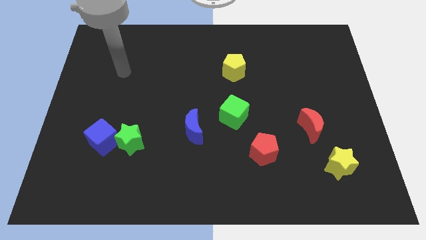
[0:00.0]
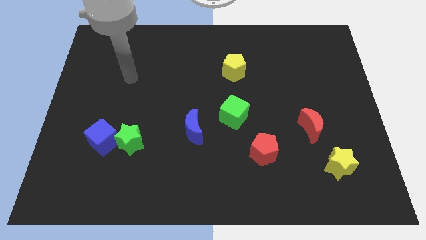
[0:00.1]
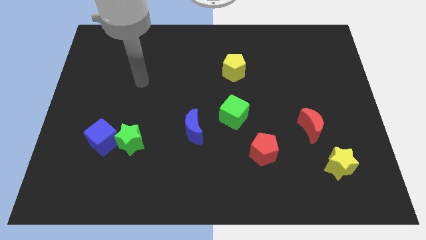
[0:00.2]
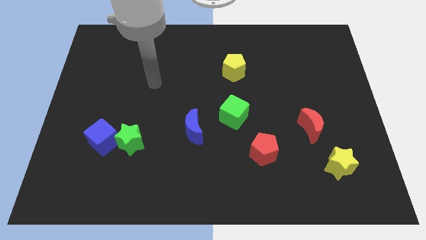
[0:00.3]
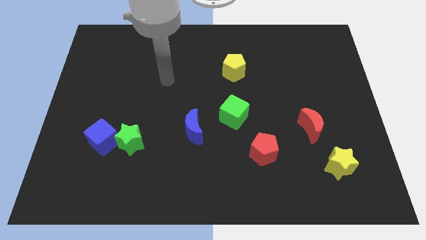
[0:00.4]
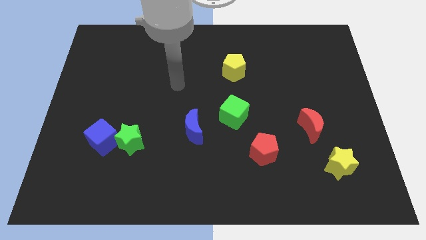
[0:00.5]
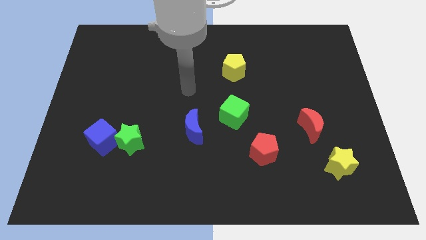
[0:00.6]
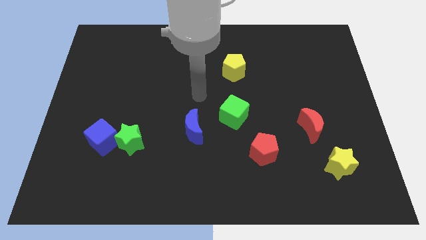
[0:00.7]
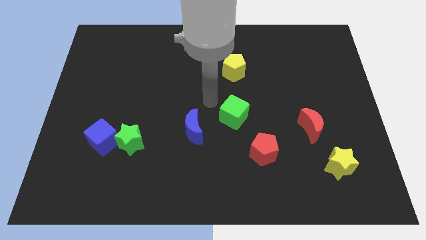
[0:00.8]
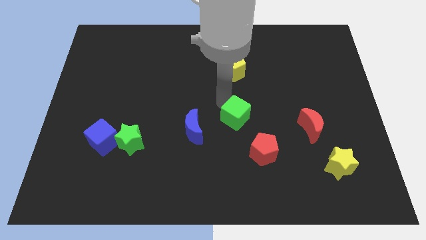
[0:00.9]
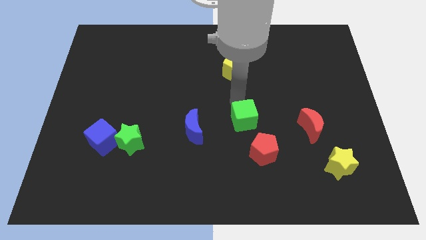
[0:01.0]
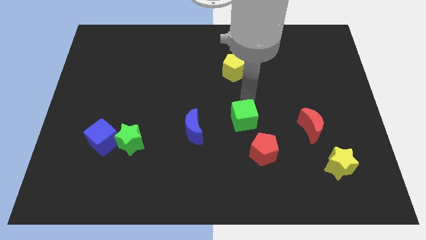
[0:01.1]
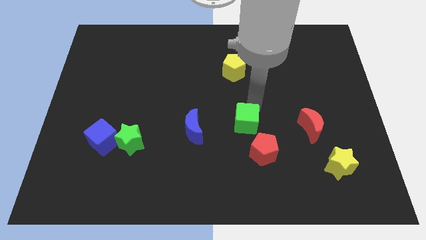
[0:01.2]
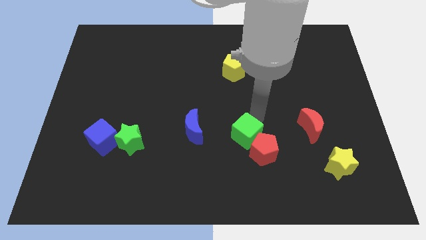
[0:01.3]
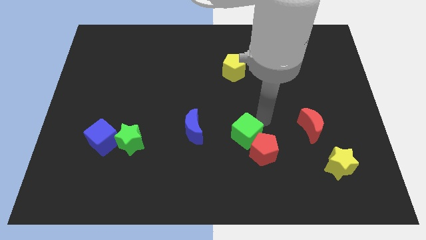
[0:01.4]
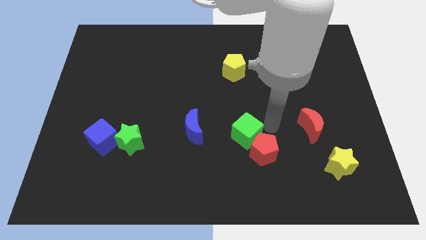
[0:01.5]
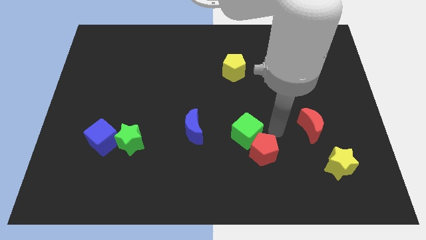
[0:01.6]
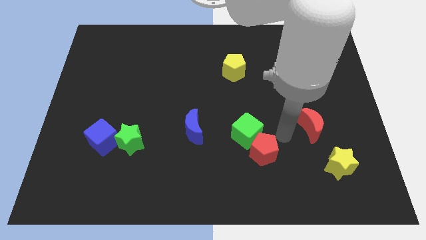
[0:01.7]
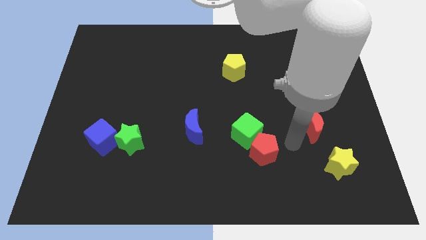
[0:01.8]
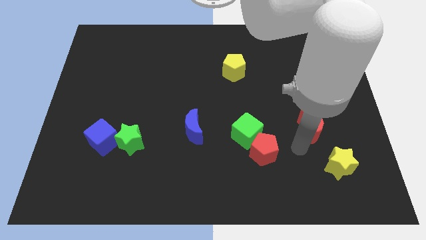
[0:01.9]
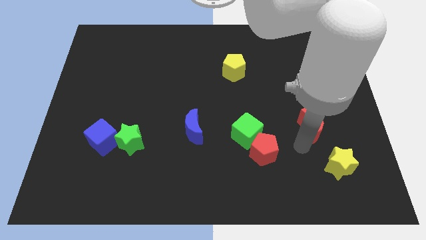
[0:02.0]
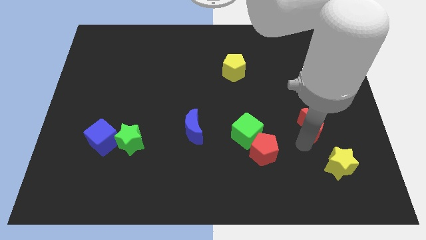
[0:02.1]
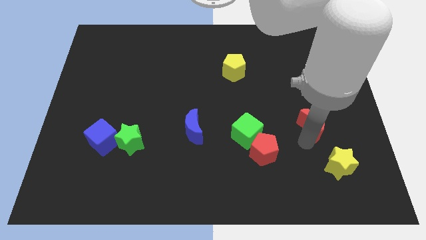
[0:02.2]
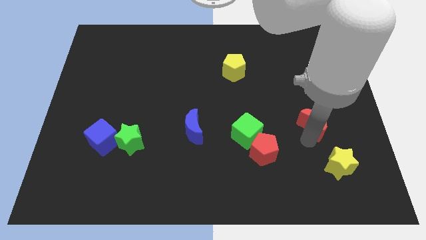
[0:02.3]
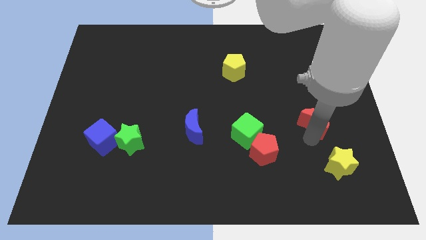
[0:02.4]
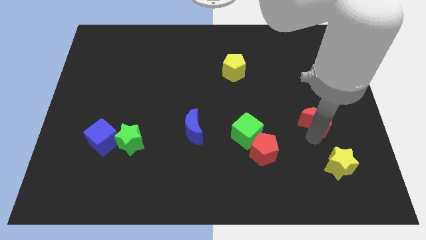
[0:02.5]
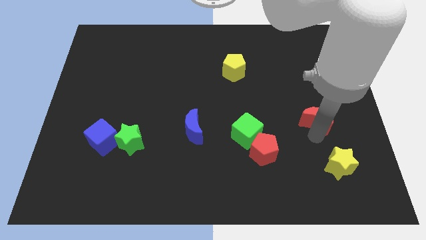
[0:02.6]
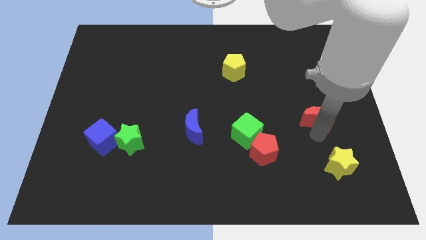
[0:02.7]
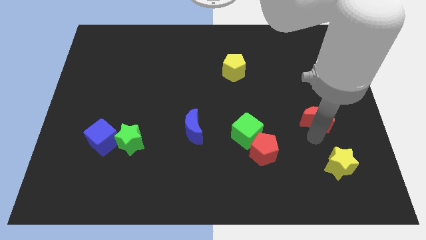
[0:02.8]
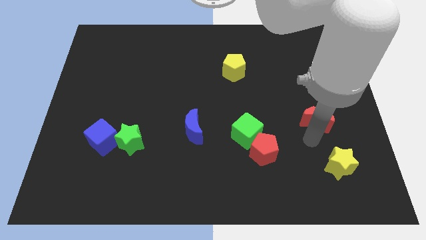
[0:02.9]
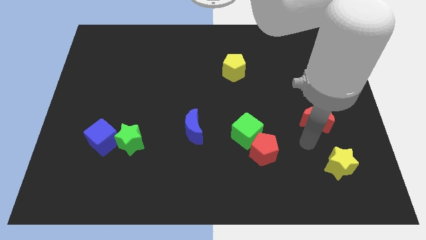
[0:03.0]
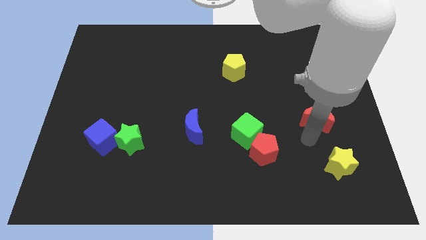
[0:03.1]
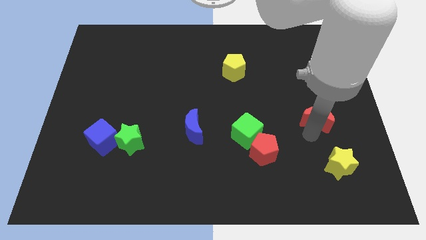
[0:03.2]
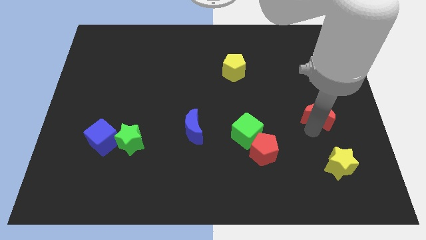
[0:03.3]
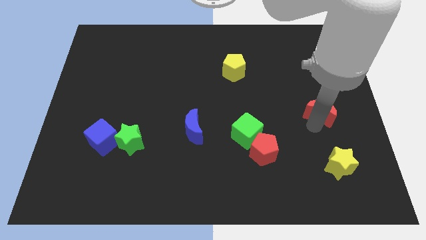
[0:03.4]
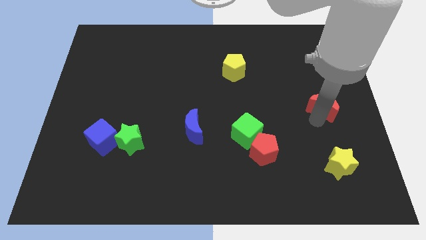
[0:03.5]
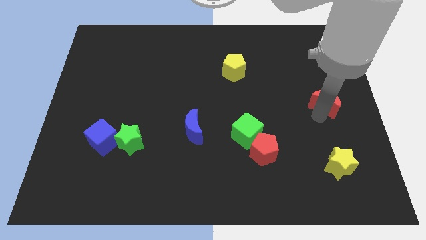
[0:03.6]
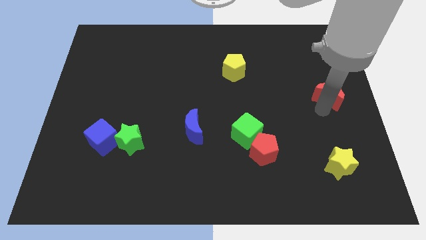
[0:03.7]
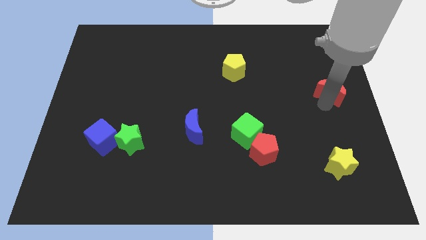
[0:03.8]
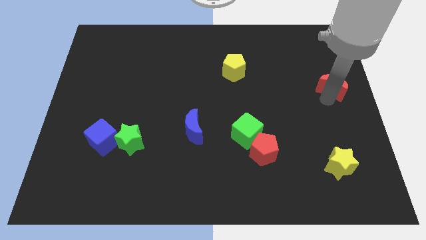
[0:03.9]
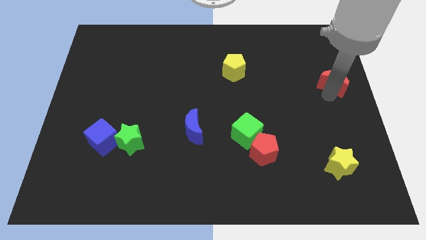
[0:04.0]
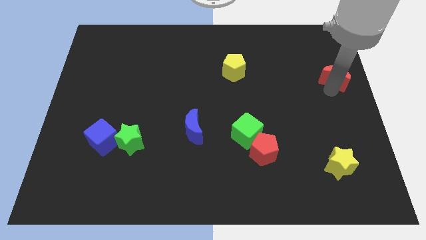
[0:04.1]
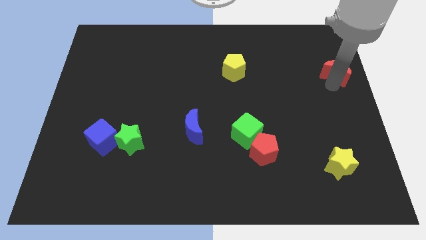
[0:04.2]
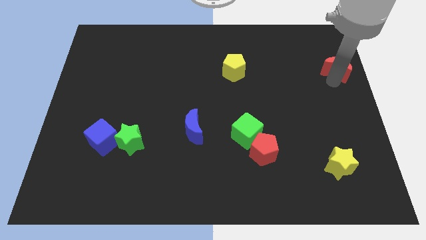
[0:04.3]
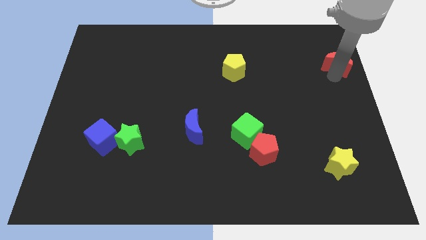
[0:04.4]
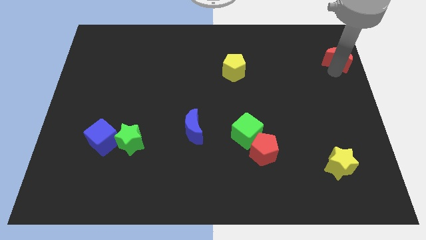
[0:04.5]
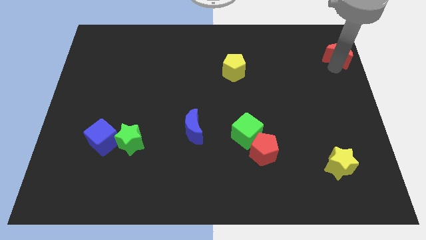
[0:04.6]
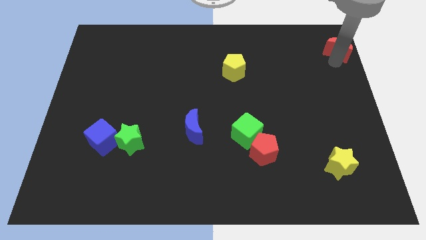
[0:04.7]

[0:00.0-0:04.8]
push the red moon to the upper right corner

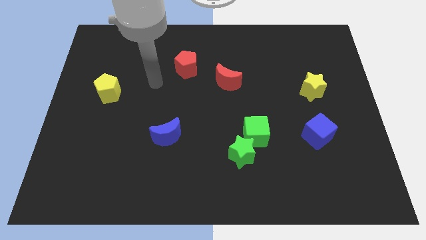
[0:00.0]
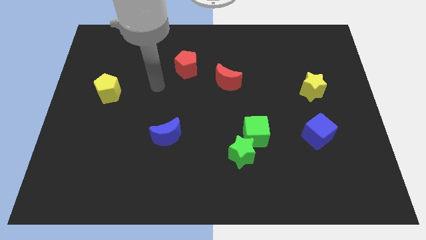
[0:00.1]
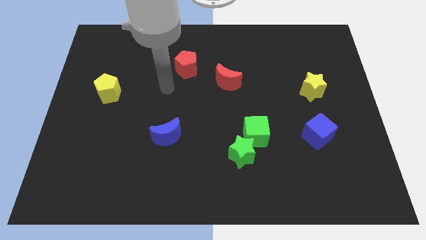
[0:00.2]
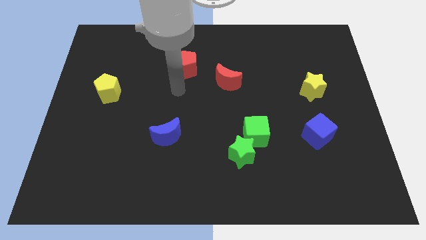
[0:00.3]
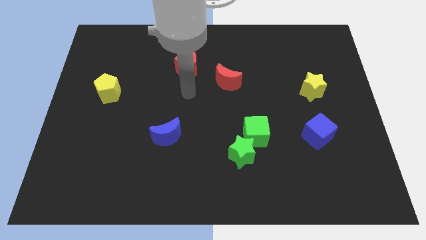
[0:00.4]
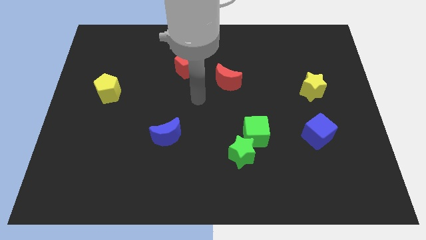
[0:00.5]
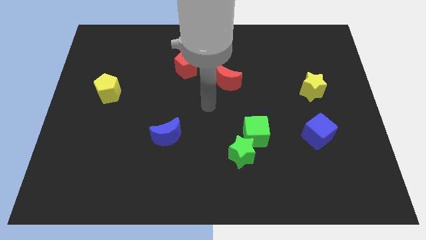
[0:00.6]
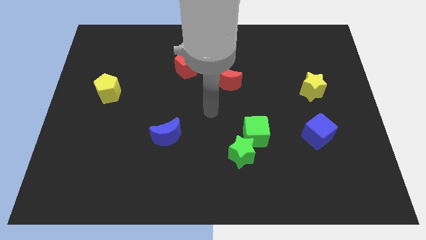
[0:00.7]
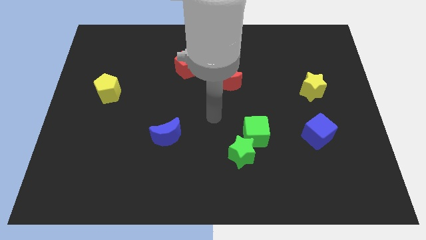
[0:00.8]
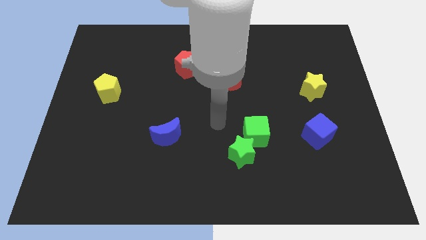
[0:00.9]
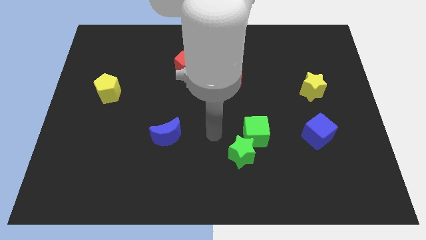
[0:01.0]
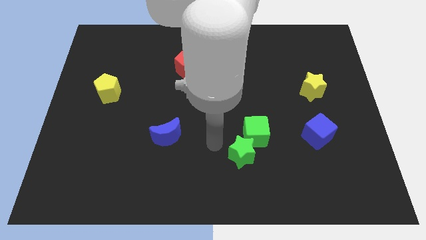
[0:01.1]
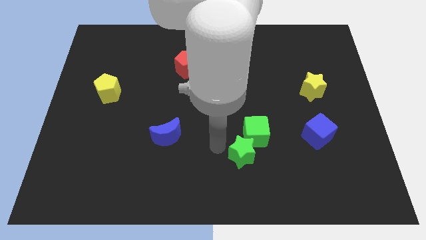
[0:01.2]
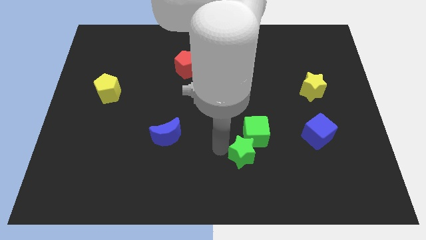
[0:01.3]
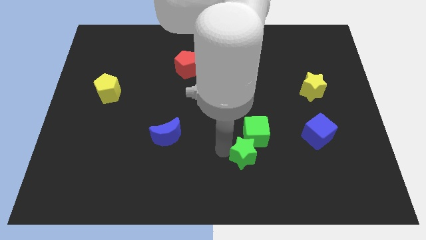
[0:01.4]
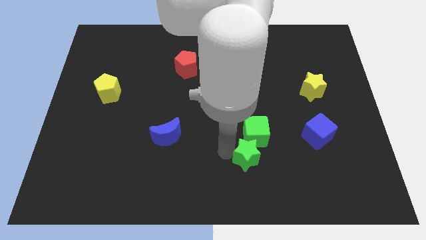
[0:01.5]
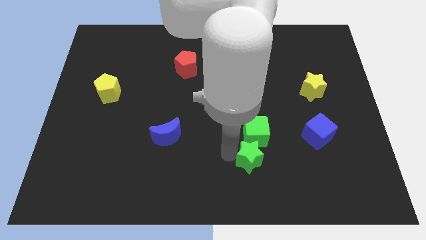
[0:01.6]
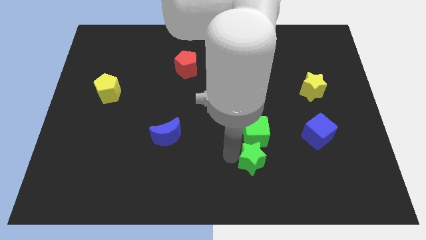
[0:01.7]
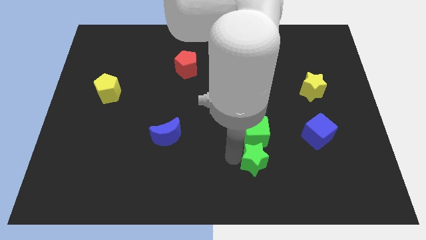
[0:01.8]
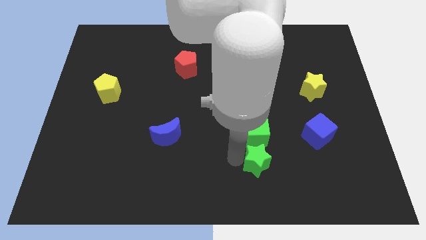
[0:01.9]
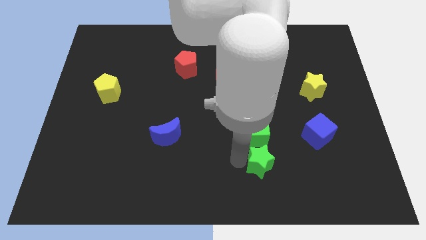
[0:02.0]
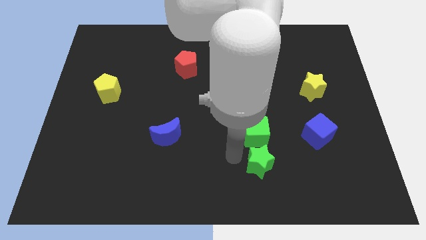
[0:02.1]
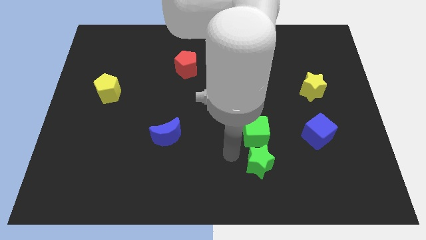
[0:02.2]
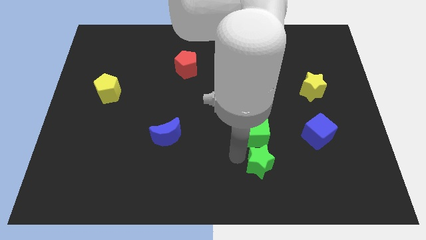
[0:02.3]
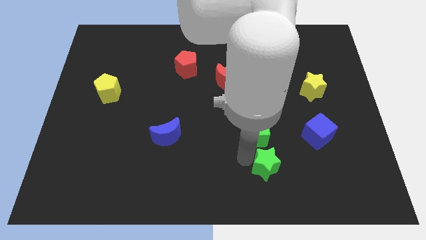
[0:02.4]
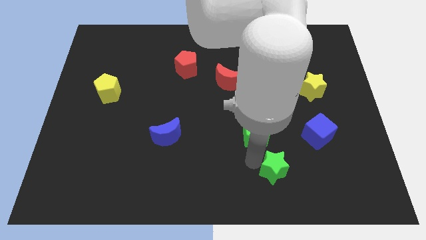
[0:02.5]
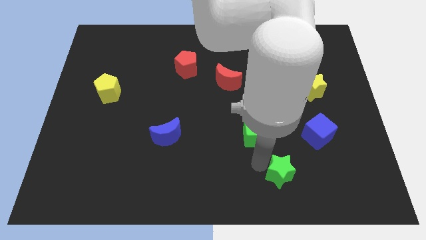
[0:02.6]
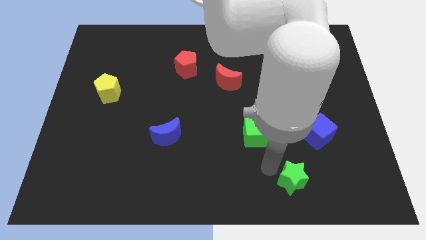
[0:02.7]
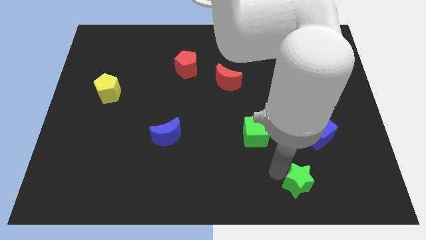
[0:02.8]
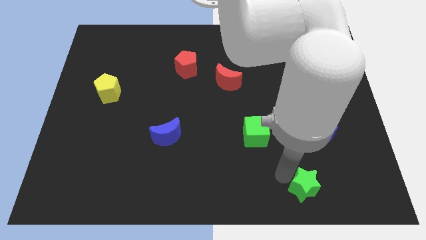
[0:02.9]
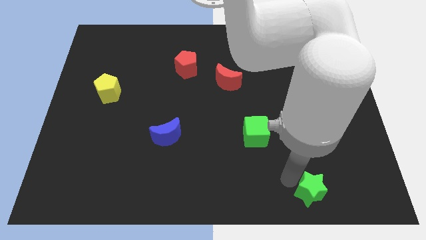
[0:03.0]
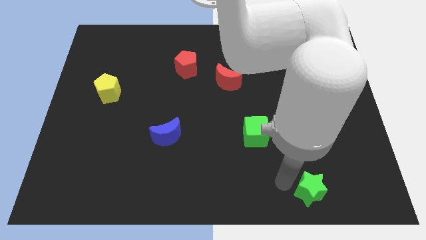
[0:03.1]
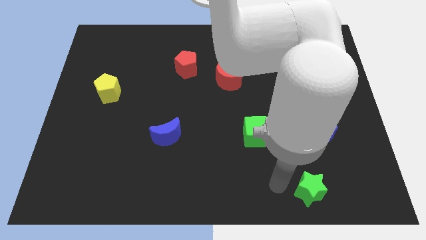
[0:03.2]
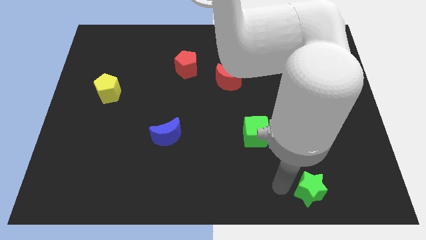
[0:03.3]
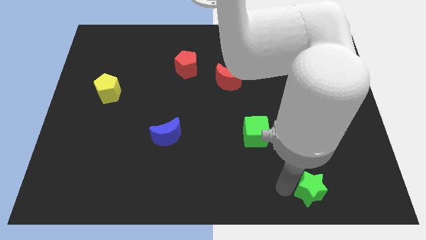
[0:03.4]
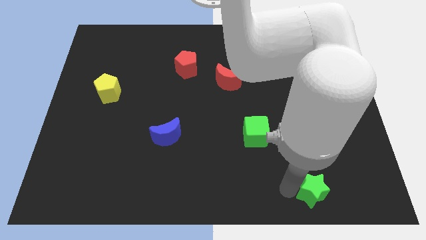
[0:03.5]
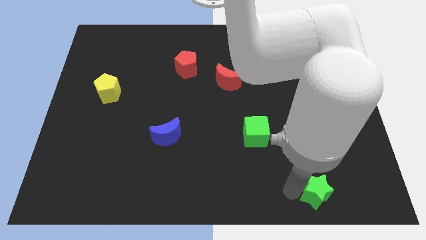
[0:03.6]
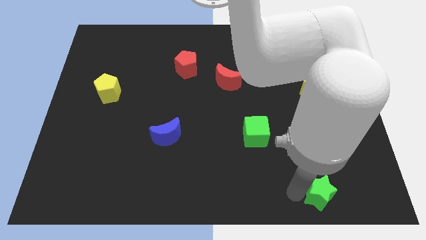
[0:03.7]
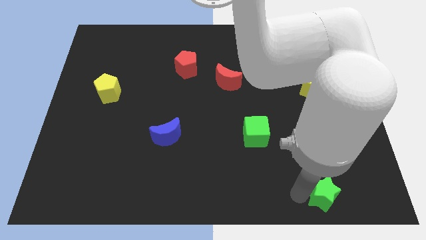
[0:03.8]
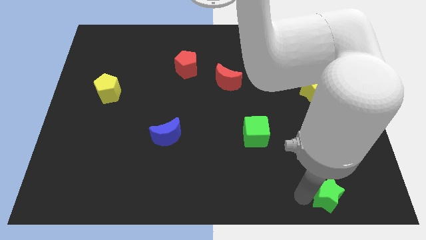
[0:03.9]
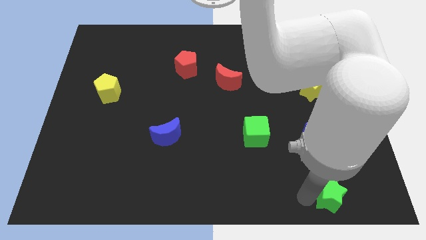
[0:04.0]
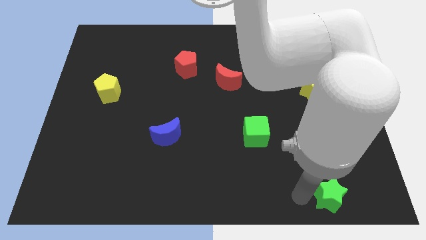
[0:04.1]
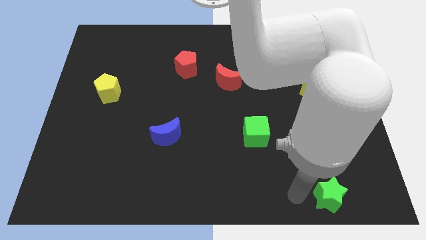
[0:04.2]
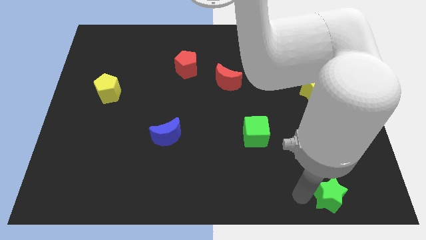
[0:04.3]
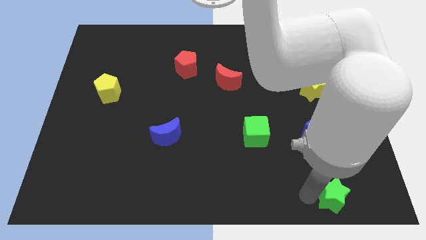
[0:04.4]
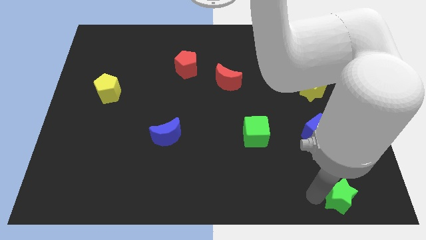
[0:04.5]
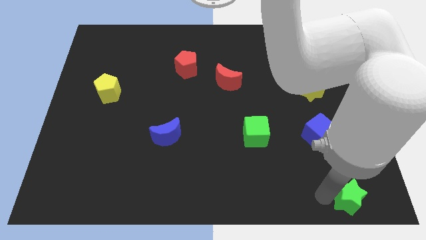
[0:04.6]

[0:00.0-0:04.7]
push the green star to the bottom right corner
